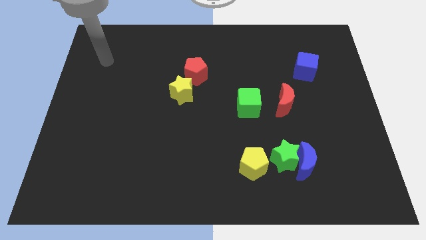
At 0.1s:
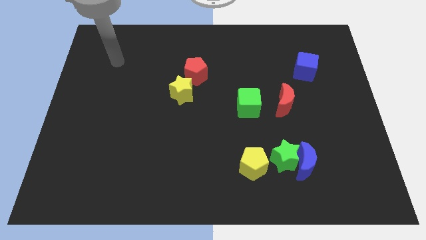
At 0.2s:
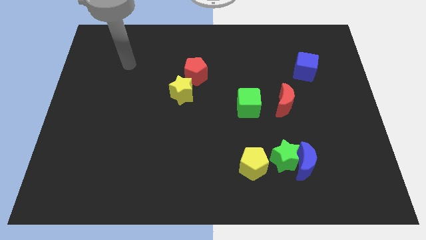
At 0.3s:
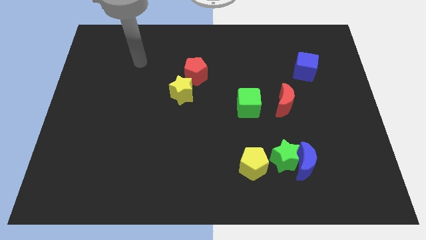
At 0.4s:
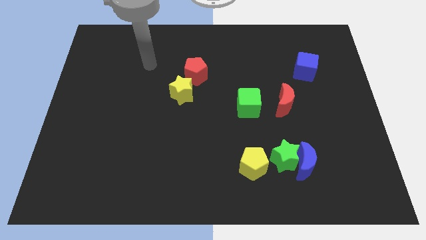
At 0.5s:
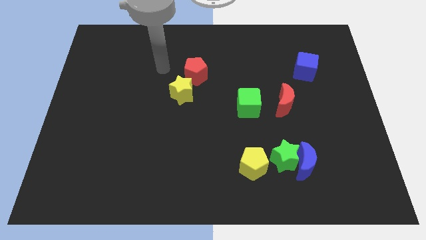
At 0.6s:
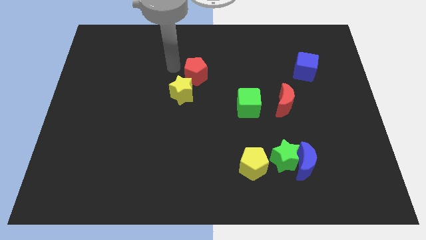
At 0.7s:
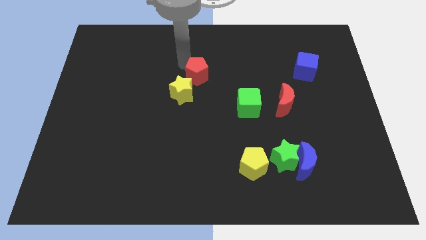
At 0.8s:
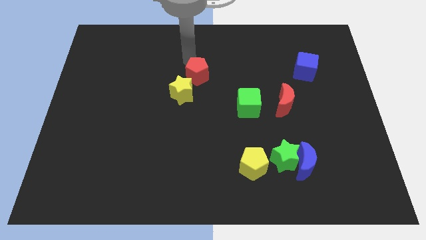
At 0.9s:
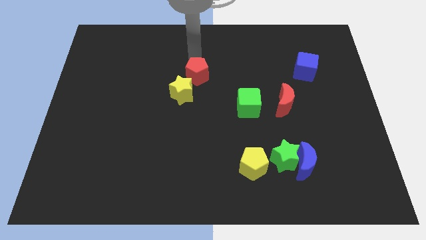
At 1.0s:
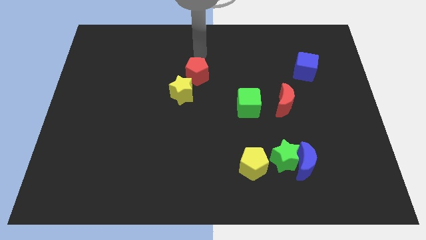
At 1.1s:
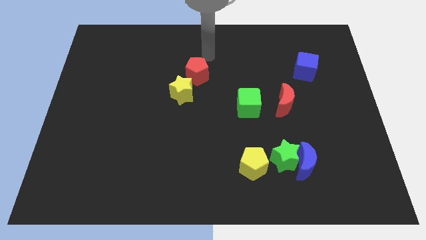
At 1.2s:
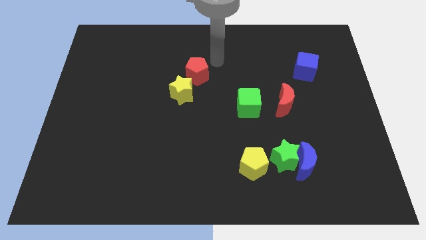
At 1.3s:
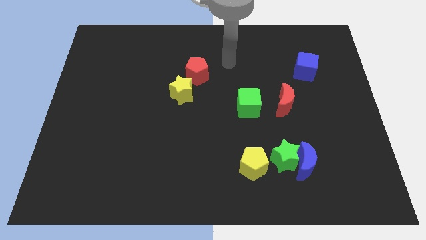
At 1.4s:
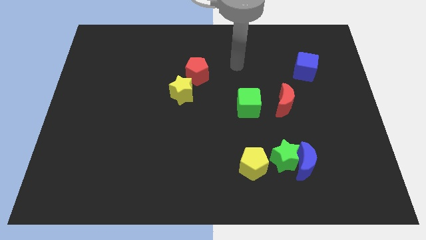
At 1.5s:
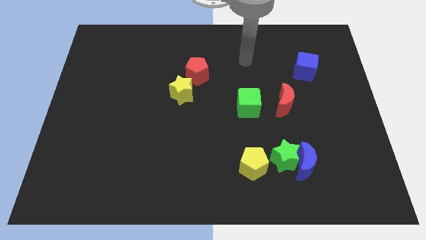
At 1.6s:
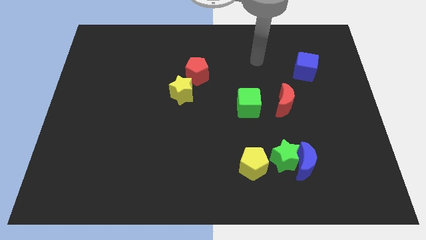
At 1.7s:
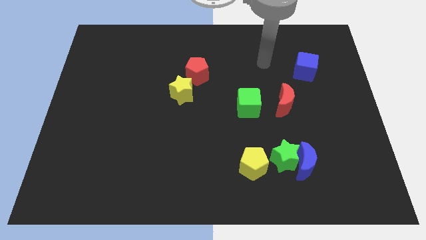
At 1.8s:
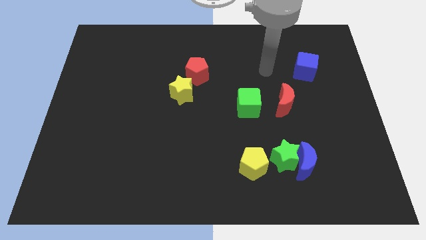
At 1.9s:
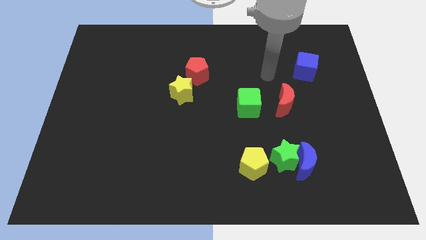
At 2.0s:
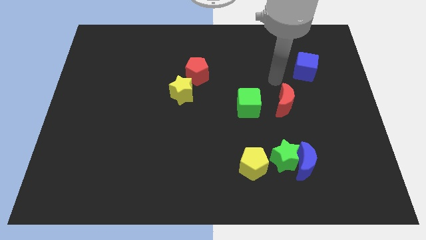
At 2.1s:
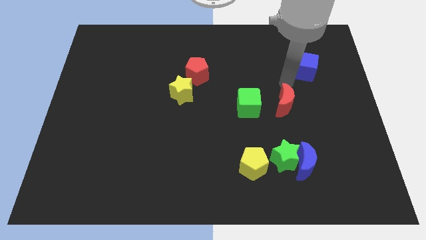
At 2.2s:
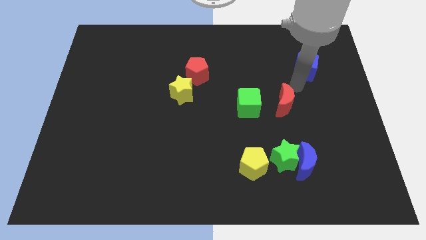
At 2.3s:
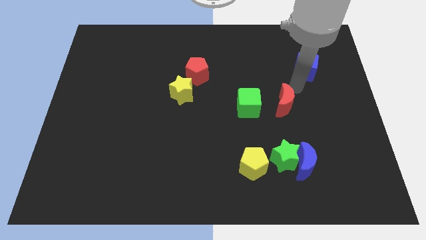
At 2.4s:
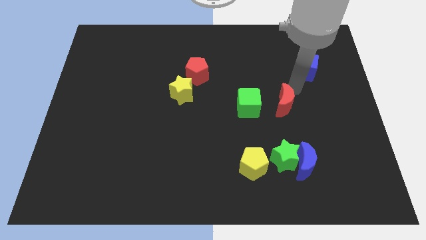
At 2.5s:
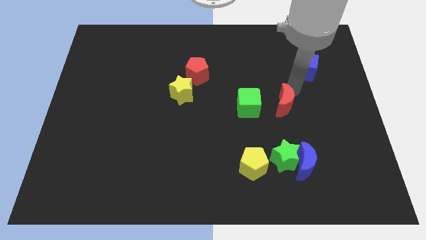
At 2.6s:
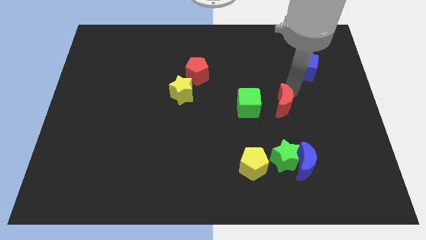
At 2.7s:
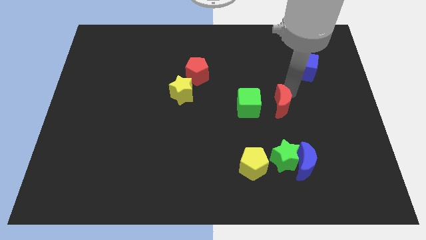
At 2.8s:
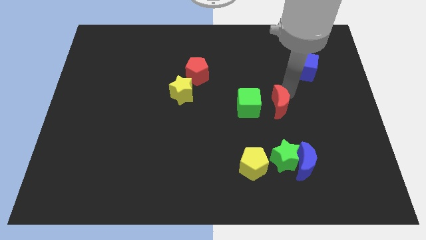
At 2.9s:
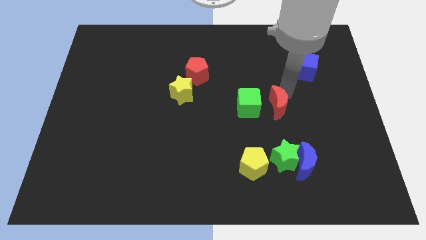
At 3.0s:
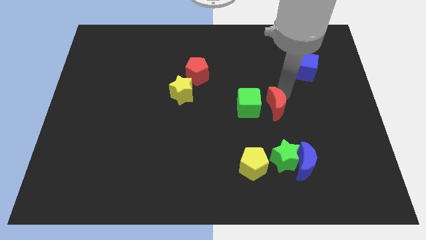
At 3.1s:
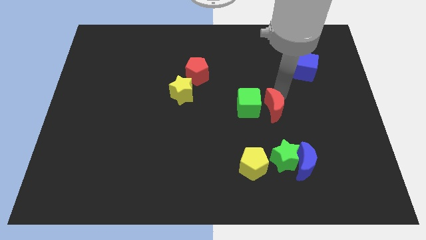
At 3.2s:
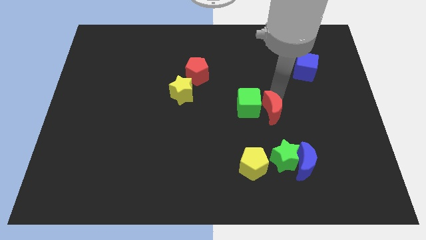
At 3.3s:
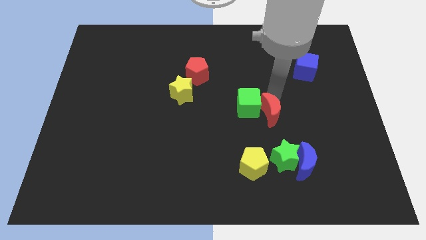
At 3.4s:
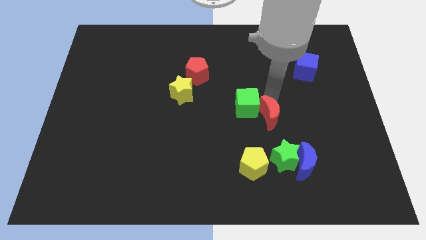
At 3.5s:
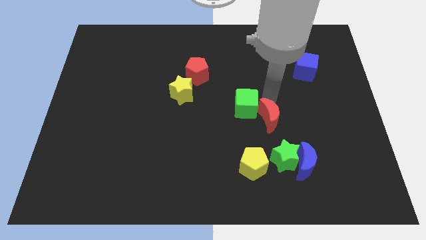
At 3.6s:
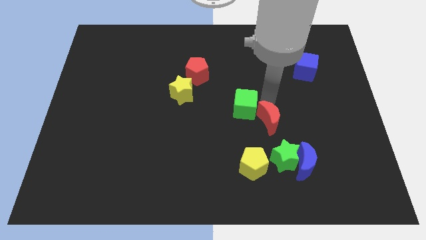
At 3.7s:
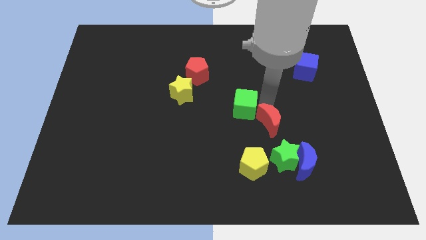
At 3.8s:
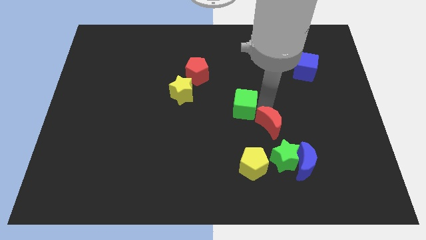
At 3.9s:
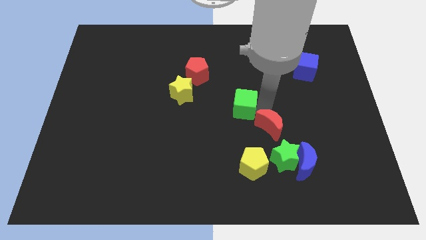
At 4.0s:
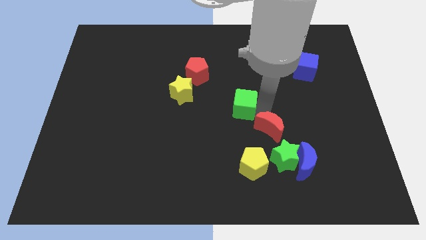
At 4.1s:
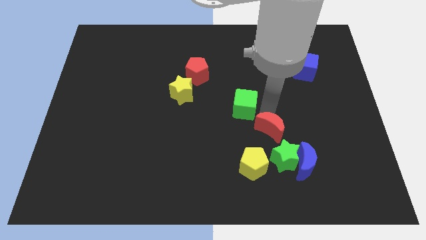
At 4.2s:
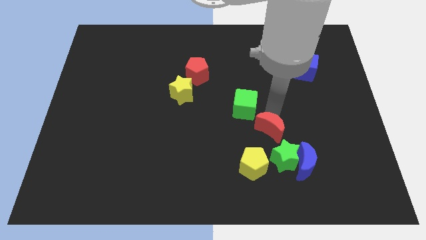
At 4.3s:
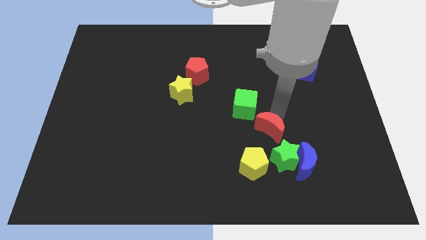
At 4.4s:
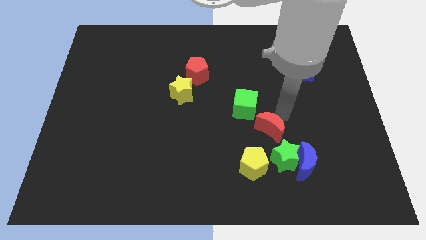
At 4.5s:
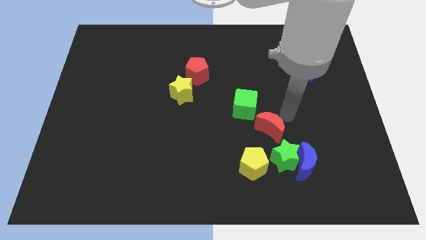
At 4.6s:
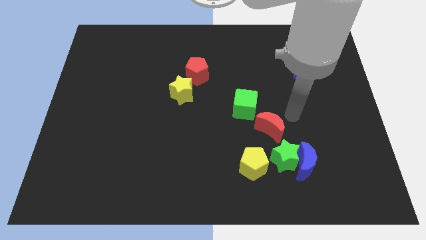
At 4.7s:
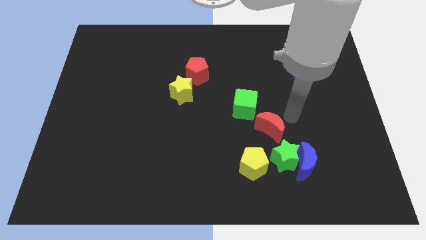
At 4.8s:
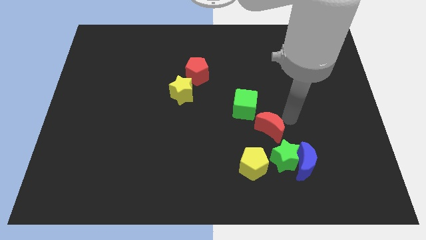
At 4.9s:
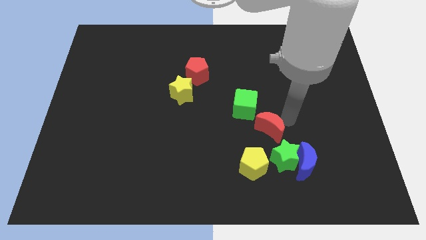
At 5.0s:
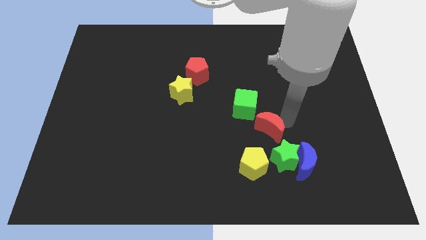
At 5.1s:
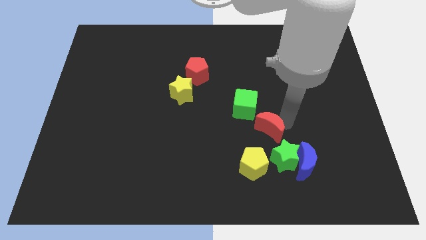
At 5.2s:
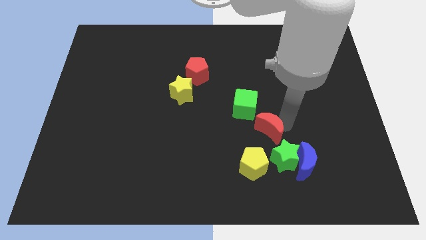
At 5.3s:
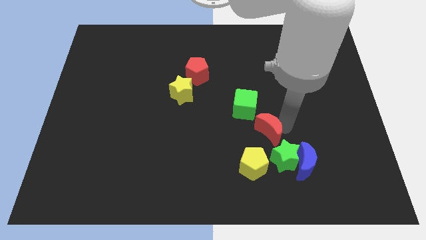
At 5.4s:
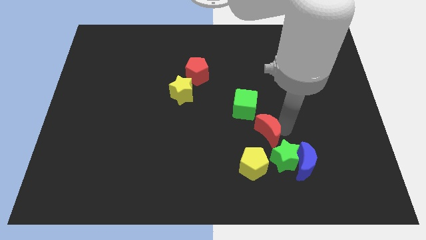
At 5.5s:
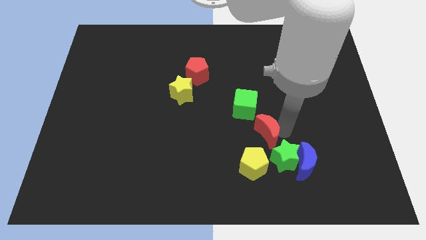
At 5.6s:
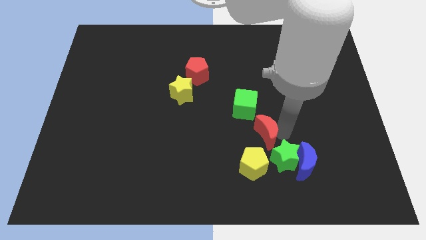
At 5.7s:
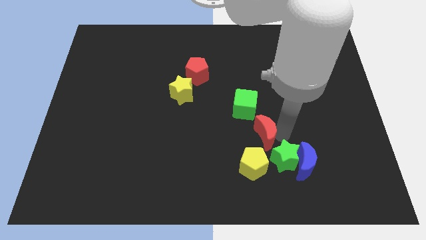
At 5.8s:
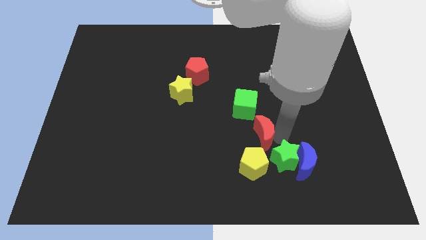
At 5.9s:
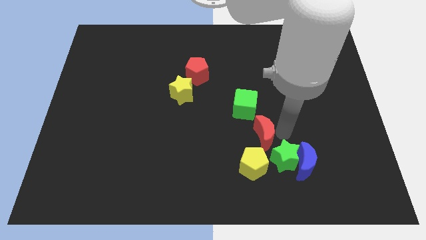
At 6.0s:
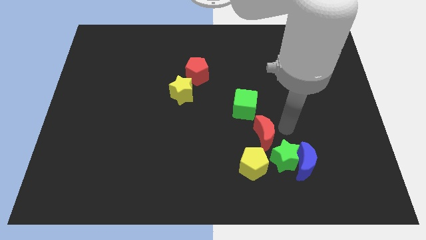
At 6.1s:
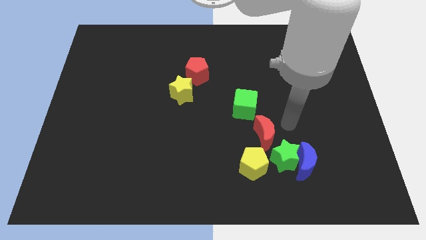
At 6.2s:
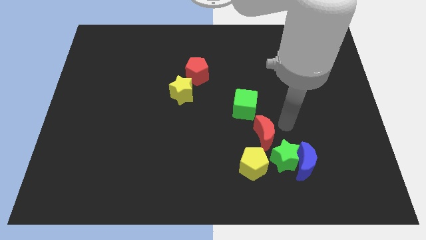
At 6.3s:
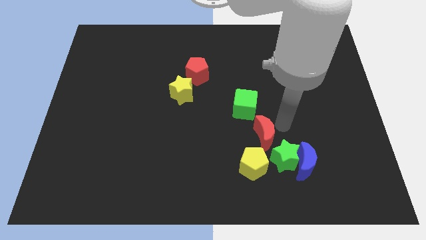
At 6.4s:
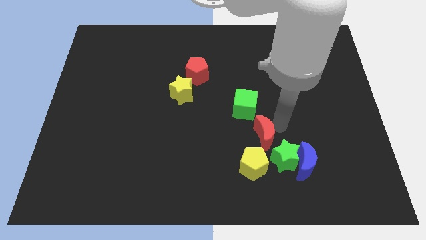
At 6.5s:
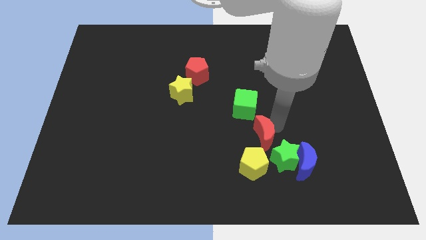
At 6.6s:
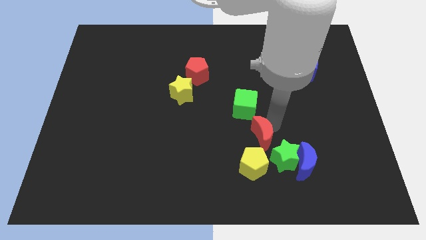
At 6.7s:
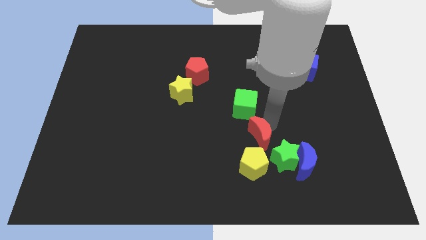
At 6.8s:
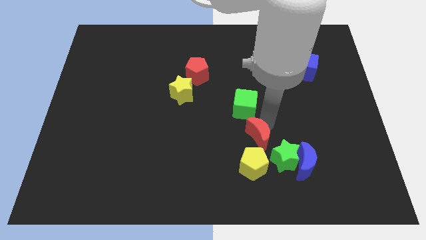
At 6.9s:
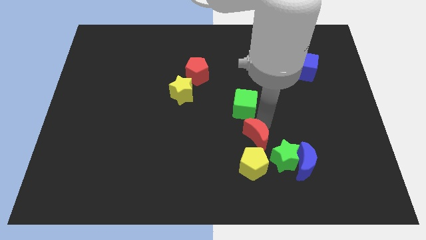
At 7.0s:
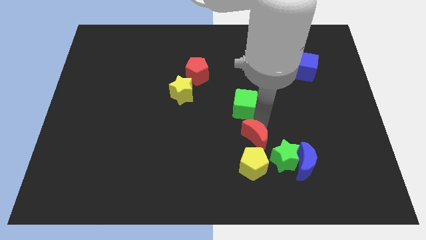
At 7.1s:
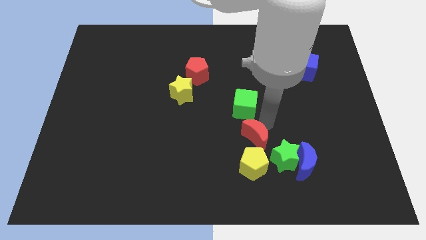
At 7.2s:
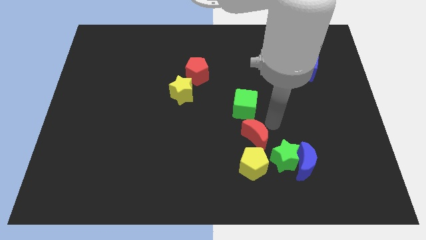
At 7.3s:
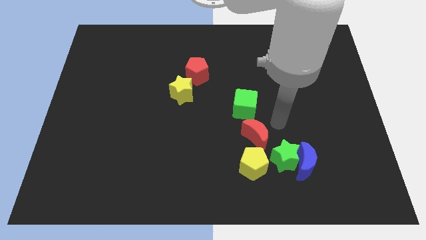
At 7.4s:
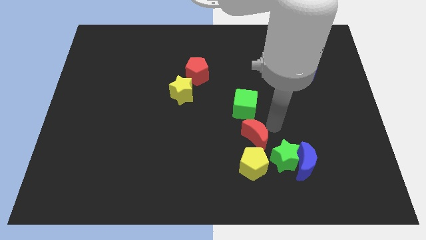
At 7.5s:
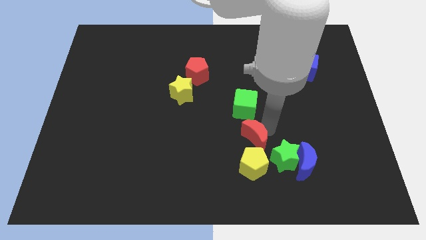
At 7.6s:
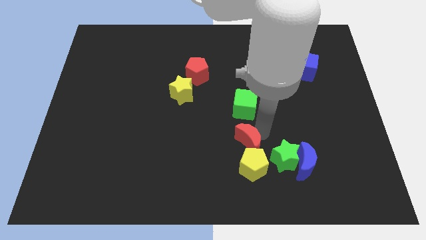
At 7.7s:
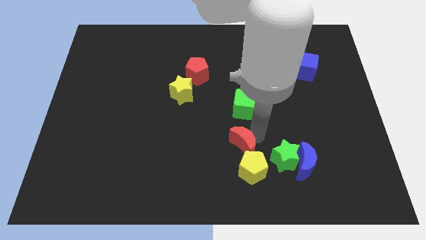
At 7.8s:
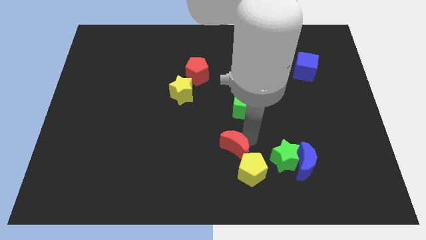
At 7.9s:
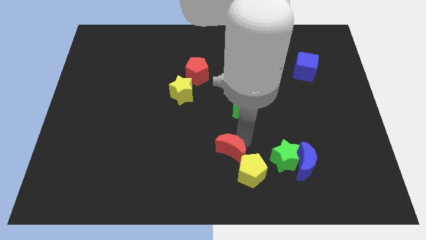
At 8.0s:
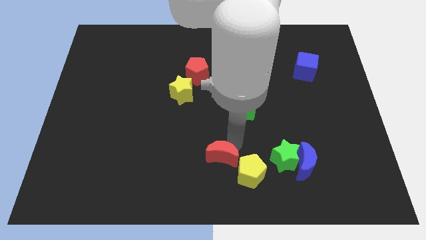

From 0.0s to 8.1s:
slide the red moon to the bottom
